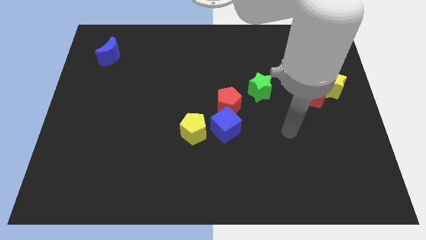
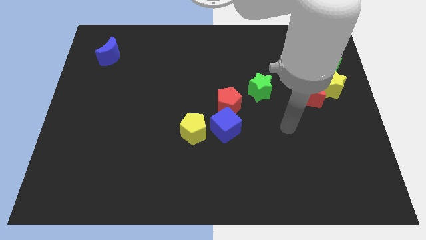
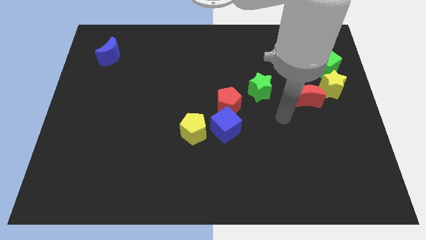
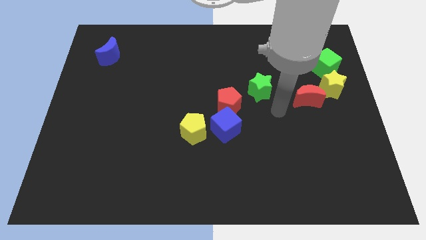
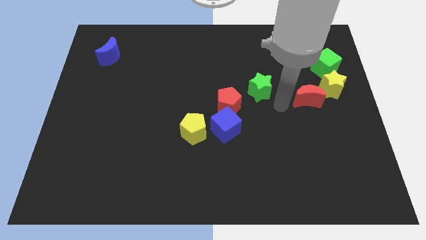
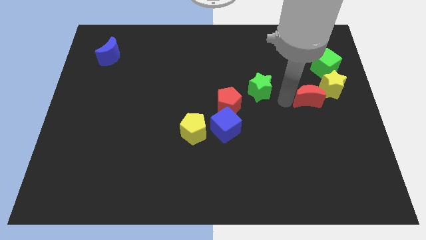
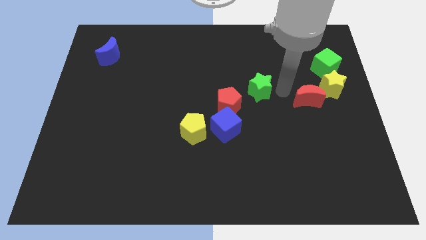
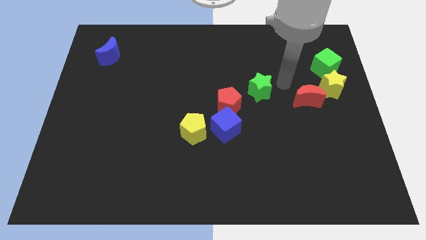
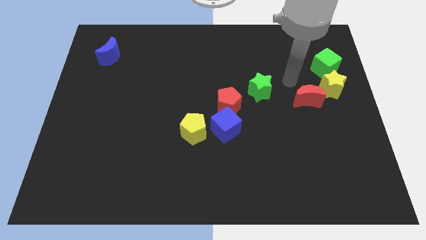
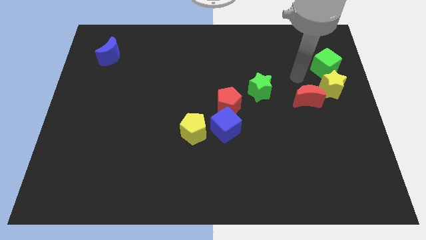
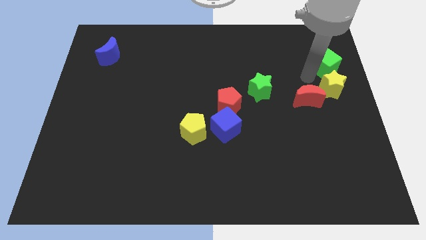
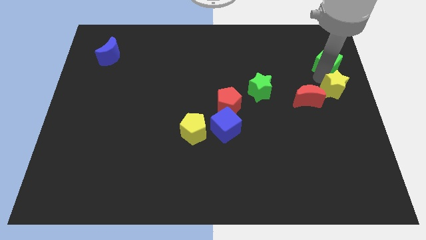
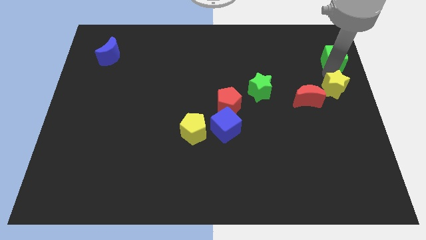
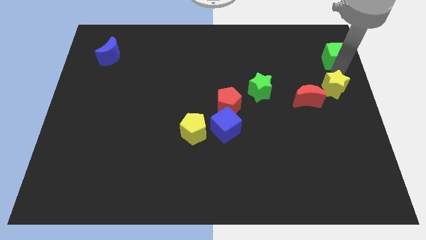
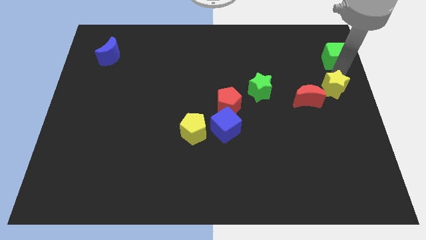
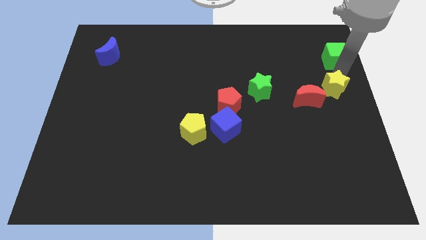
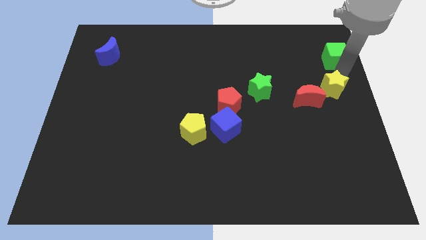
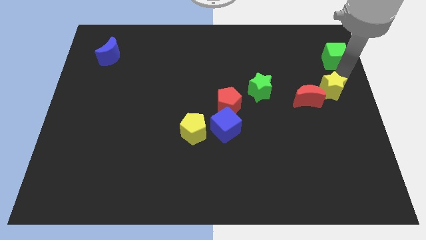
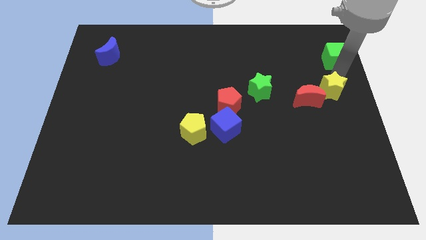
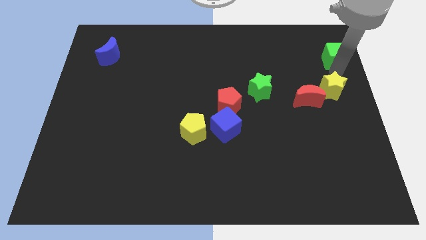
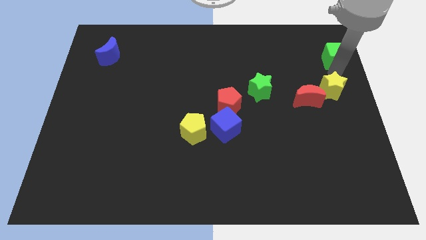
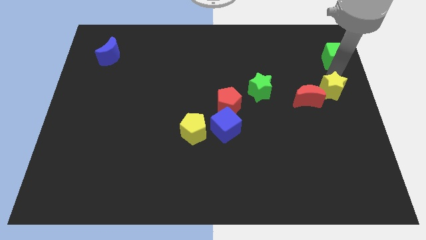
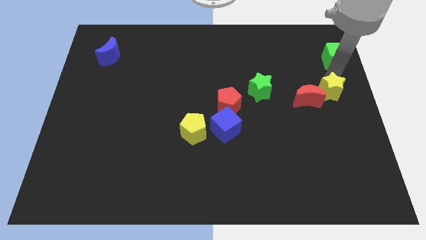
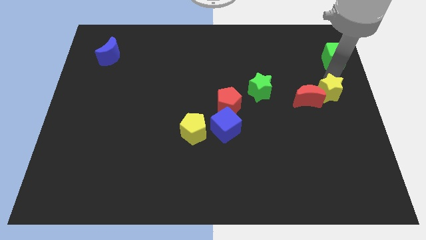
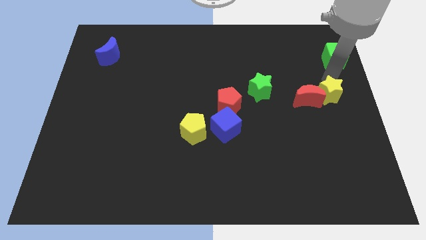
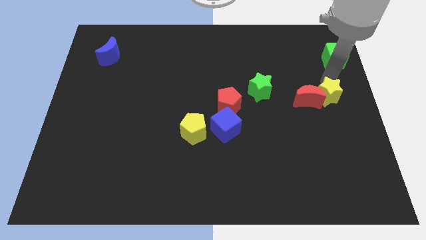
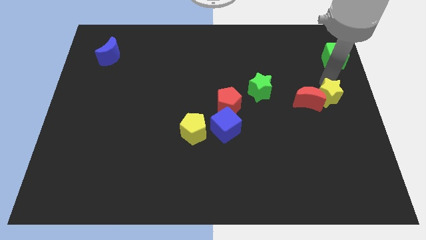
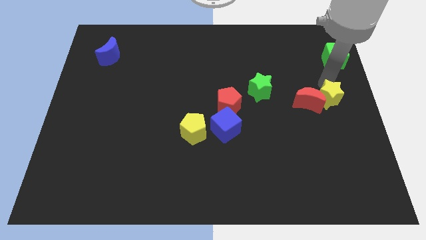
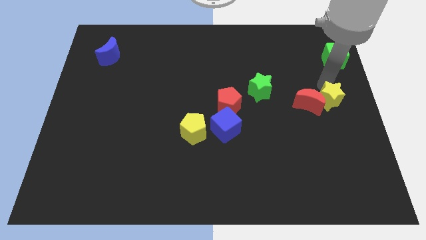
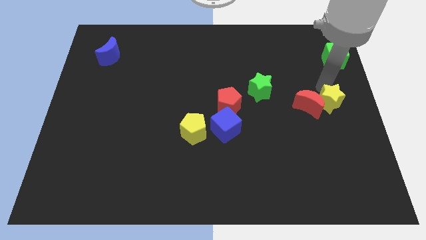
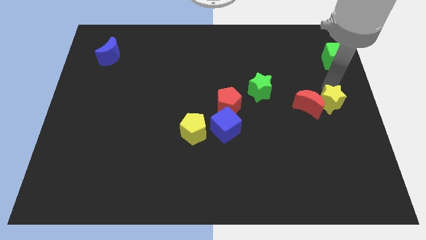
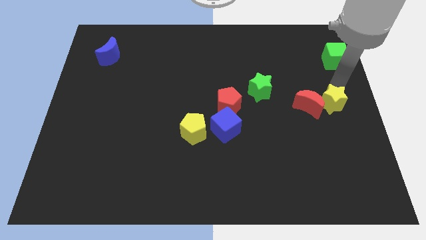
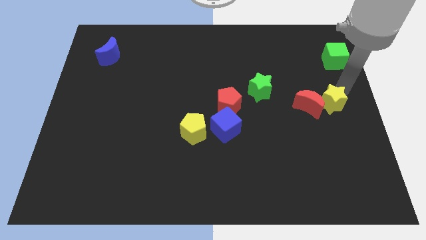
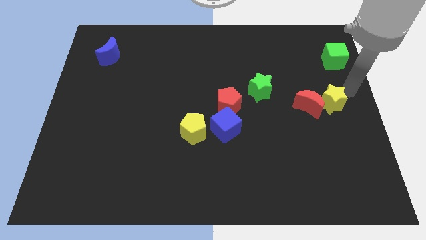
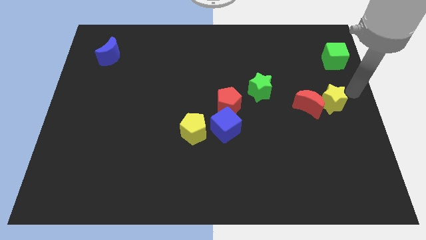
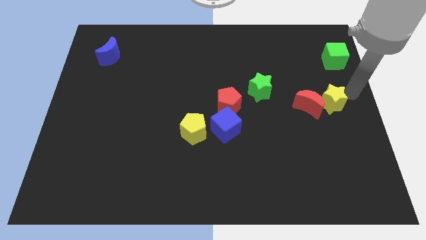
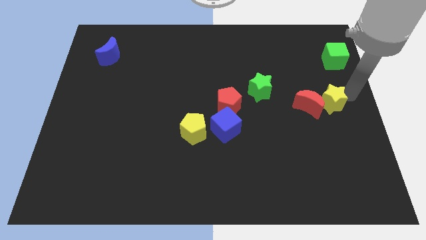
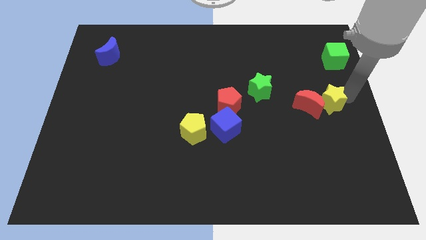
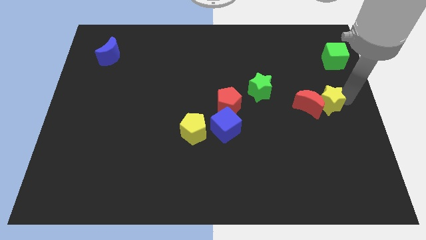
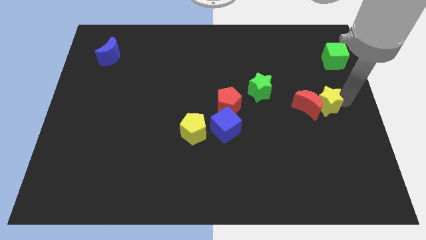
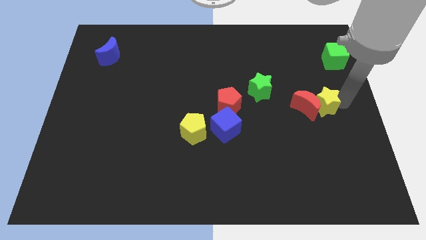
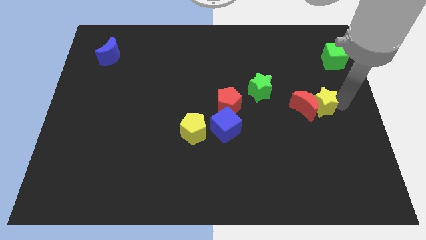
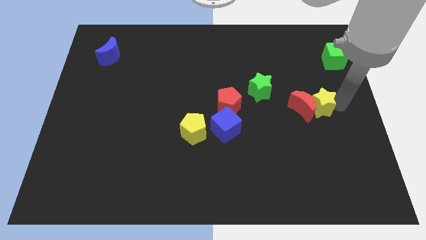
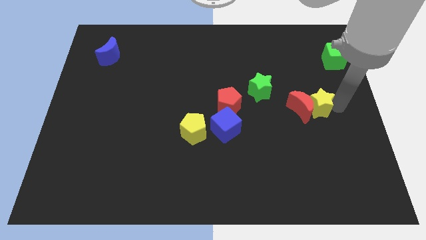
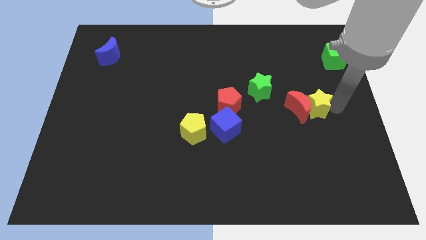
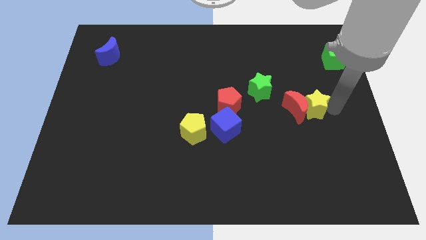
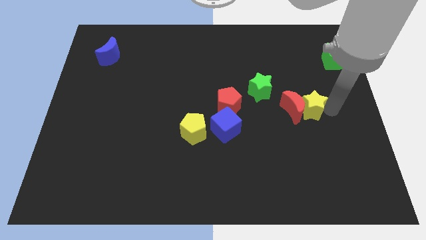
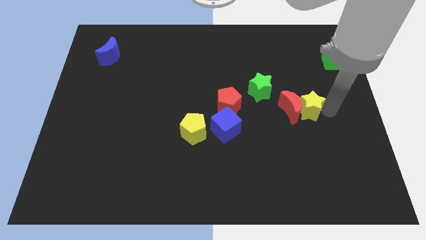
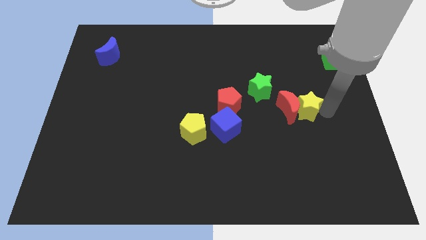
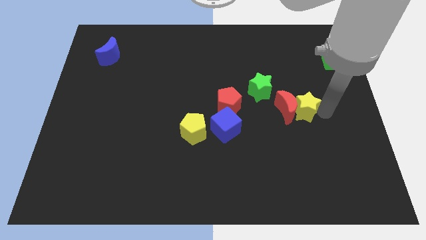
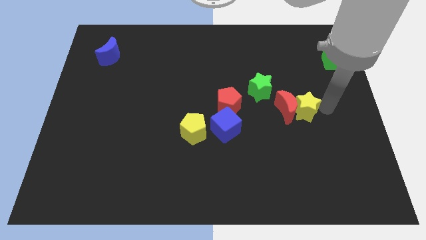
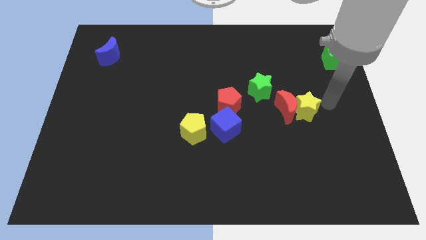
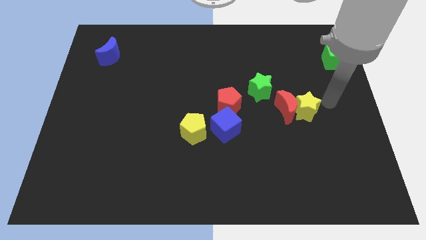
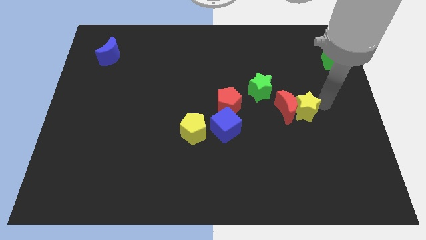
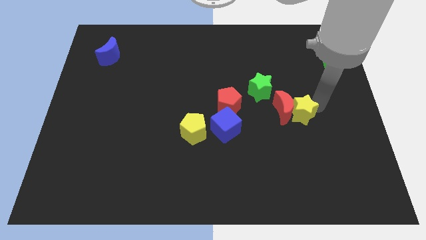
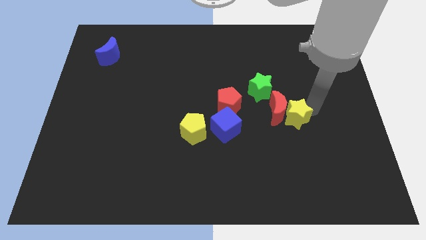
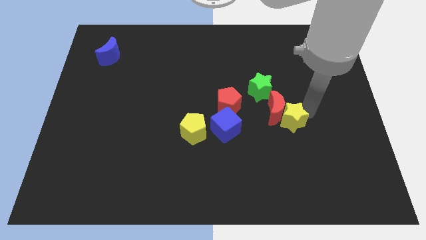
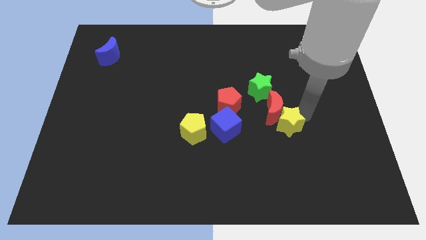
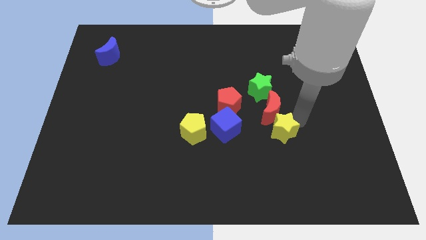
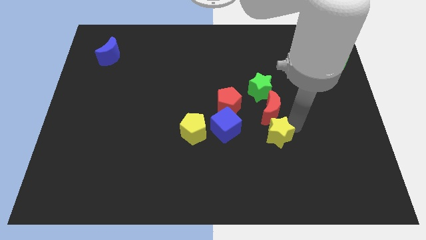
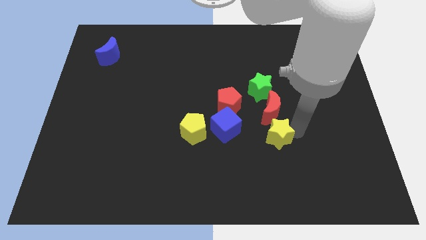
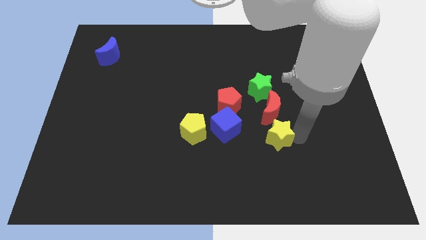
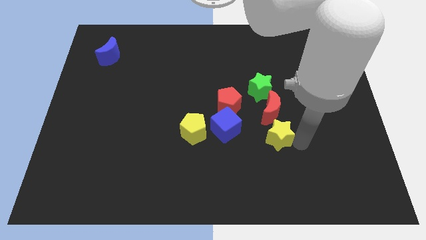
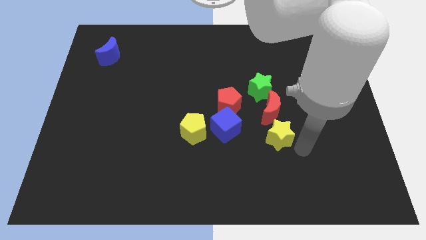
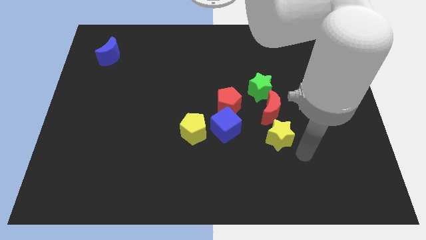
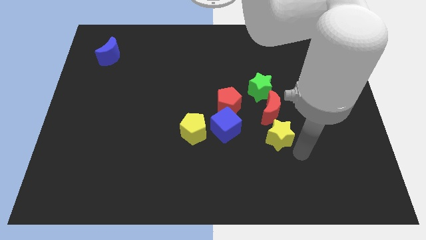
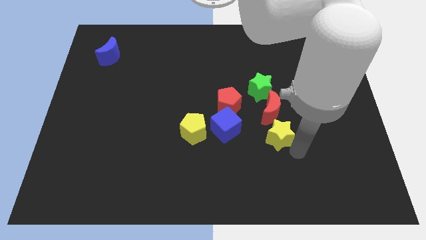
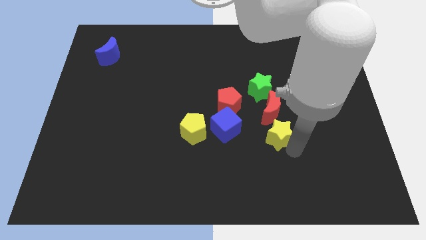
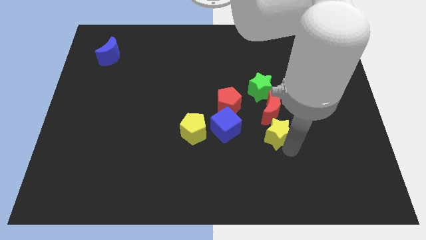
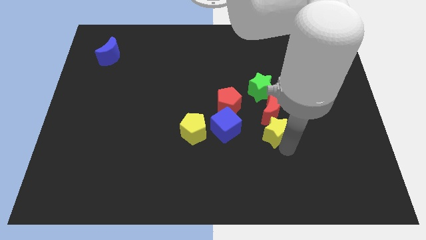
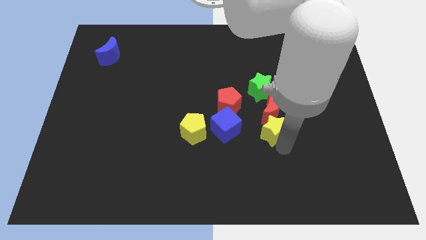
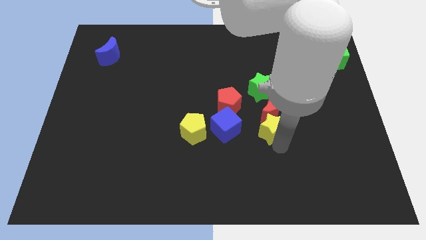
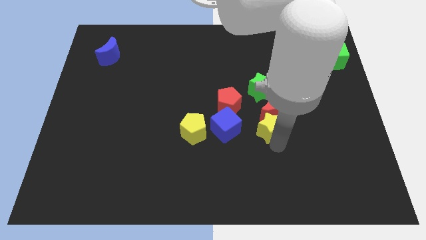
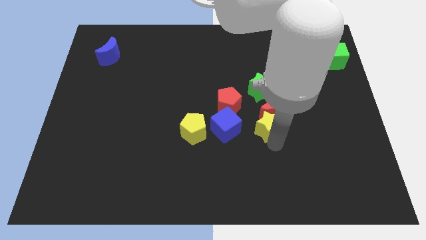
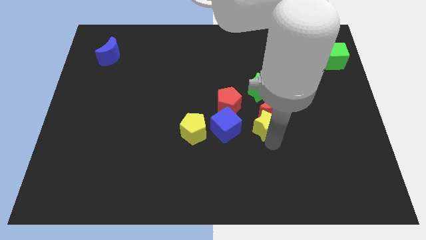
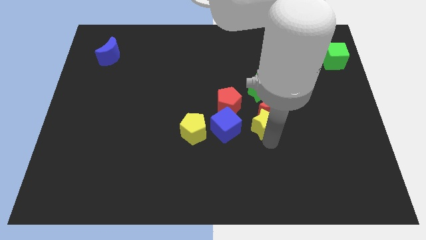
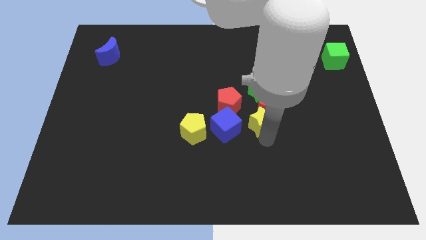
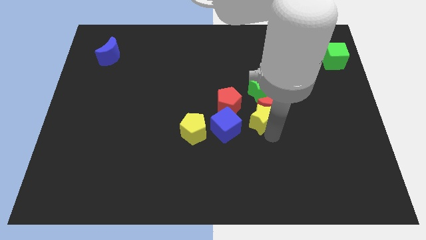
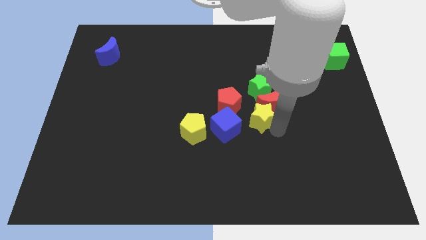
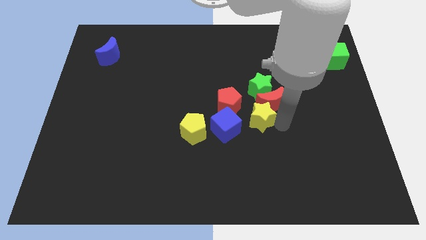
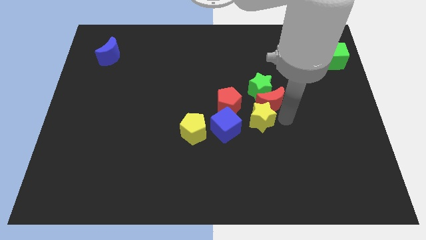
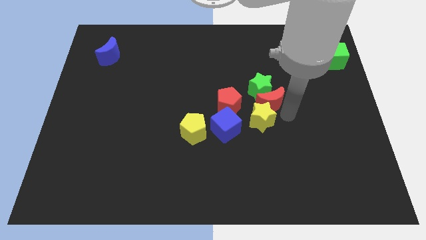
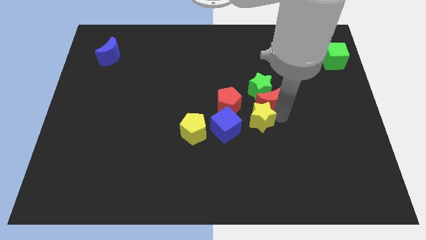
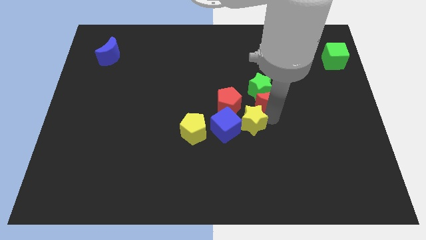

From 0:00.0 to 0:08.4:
move the yellow star close to the blue cube
